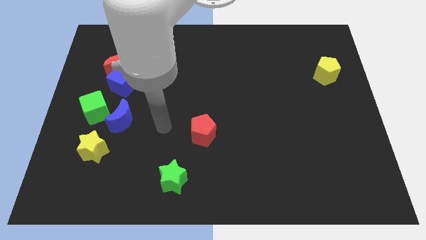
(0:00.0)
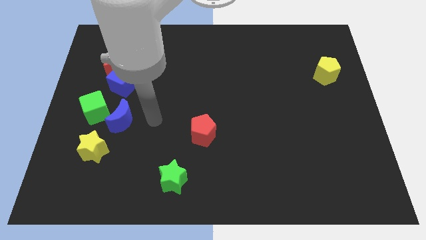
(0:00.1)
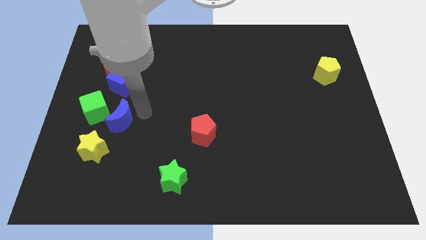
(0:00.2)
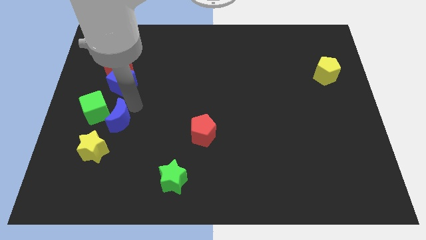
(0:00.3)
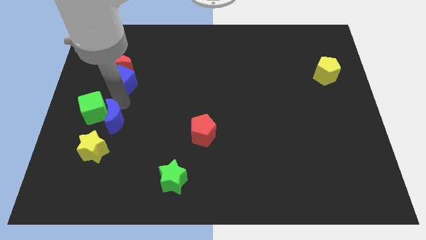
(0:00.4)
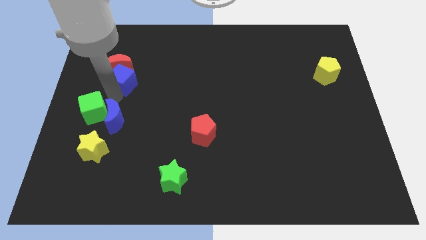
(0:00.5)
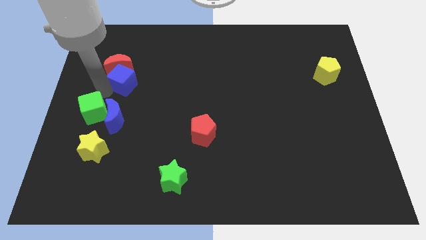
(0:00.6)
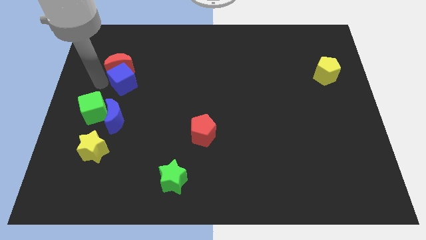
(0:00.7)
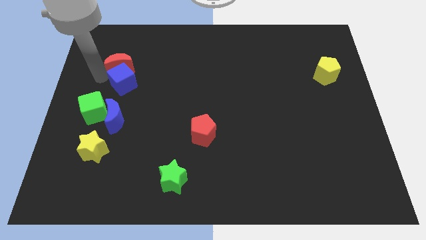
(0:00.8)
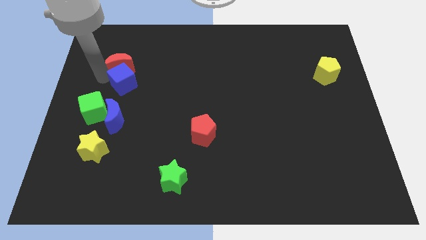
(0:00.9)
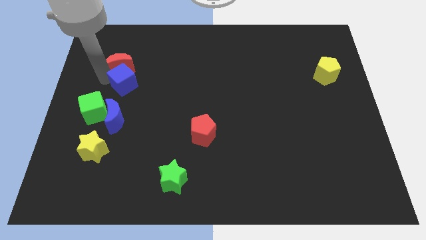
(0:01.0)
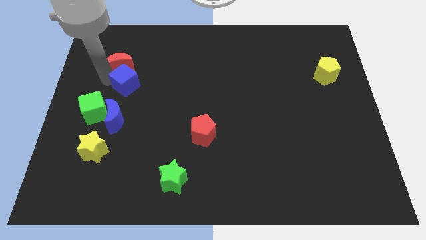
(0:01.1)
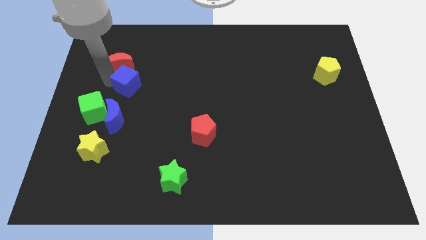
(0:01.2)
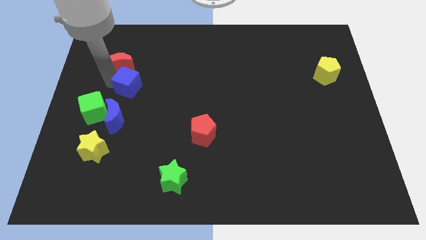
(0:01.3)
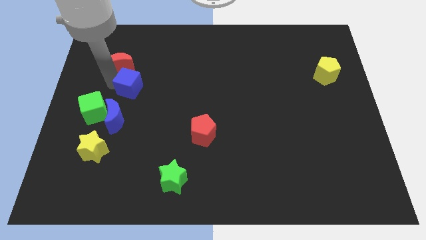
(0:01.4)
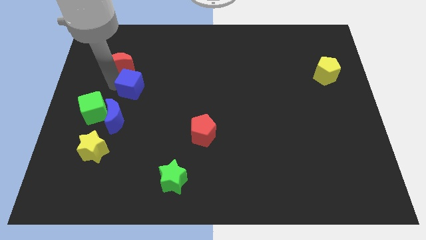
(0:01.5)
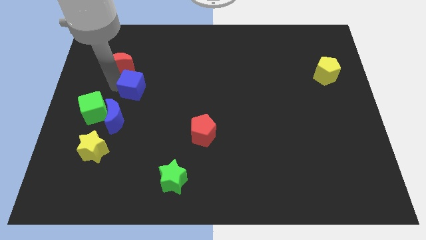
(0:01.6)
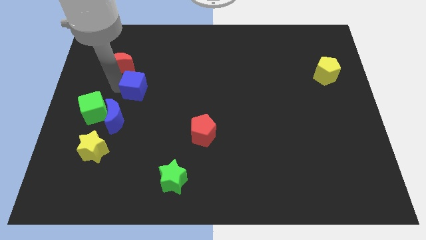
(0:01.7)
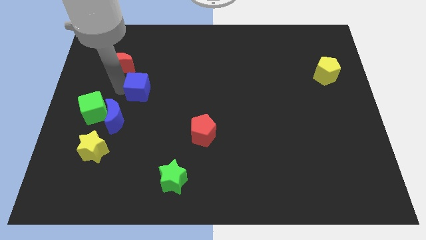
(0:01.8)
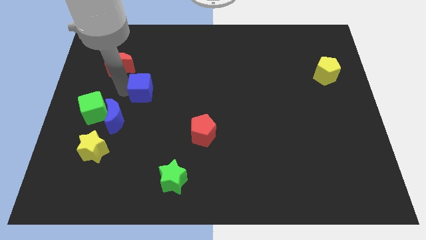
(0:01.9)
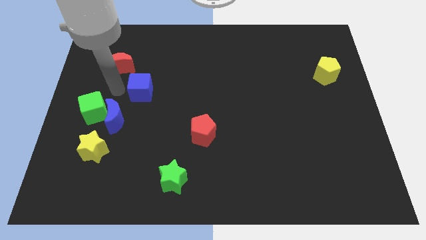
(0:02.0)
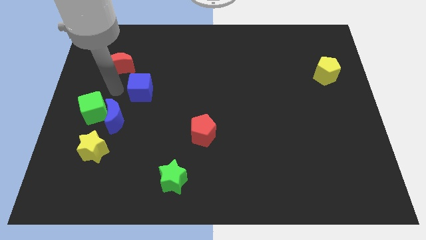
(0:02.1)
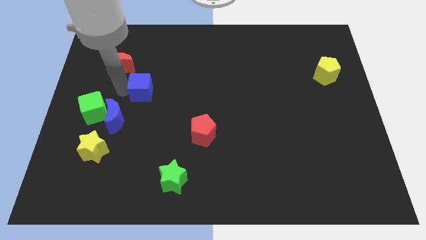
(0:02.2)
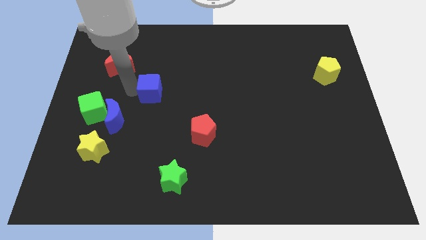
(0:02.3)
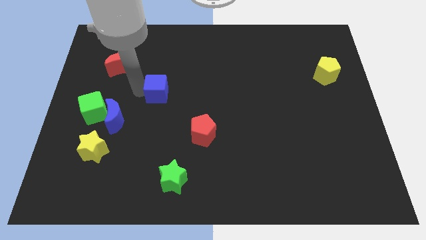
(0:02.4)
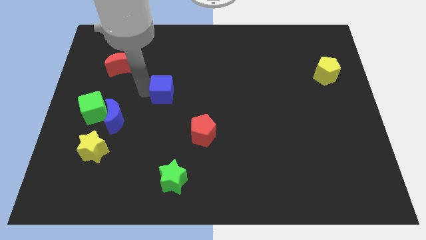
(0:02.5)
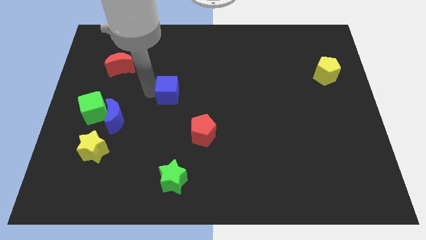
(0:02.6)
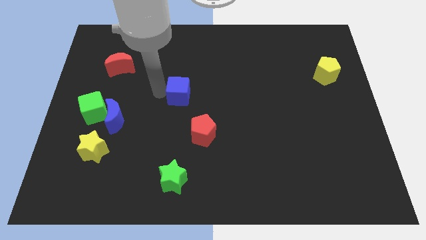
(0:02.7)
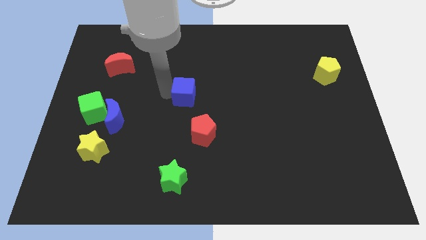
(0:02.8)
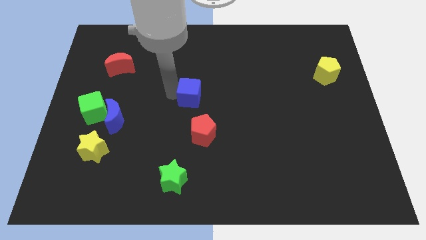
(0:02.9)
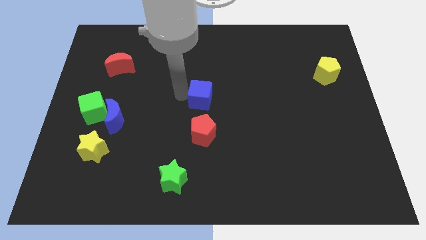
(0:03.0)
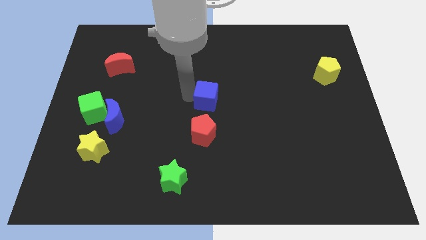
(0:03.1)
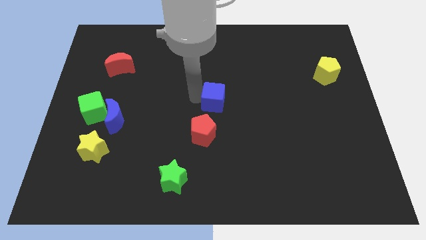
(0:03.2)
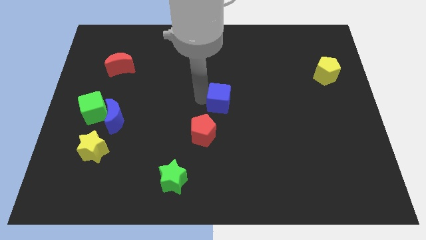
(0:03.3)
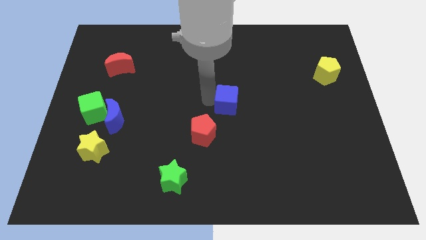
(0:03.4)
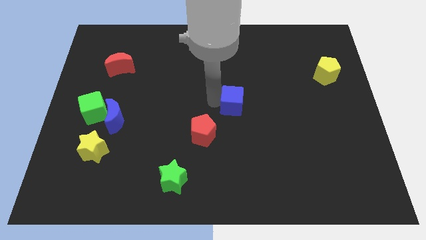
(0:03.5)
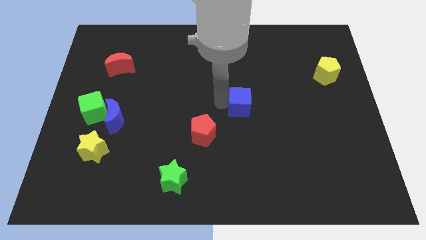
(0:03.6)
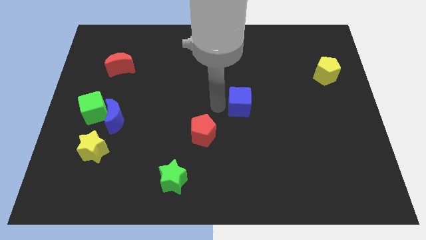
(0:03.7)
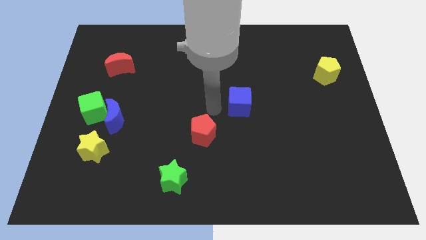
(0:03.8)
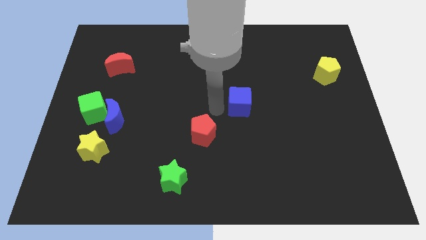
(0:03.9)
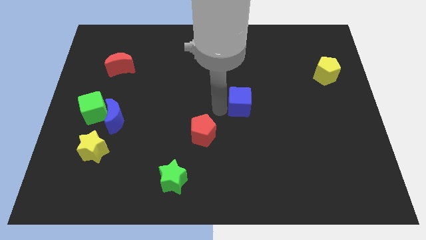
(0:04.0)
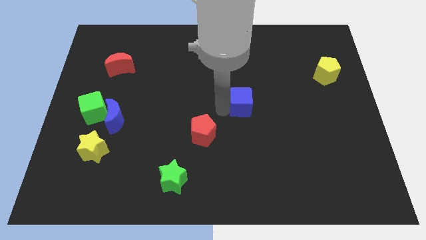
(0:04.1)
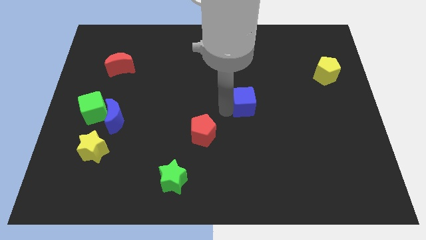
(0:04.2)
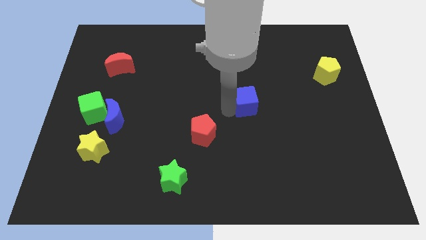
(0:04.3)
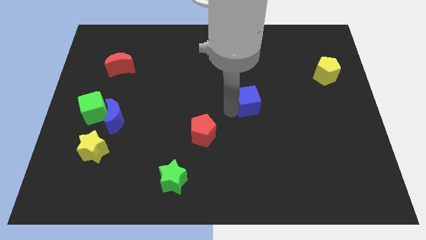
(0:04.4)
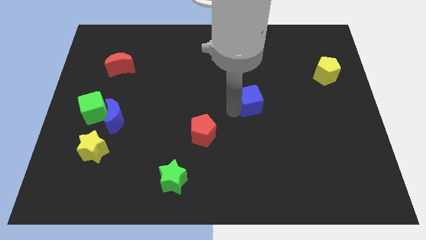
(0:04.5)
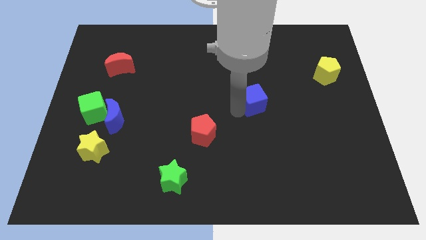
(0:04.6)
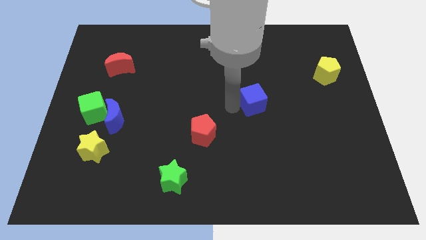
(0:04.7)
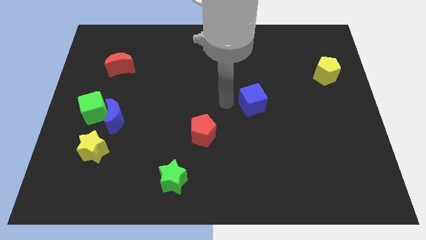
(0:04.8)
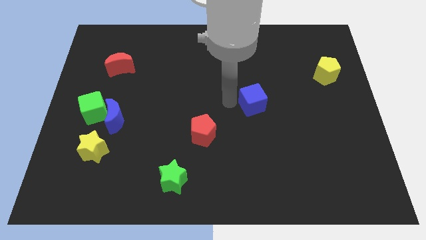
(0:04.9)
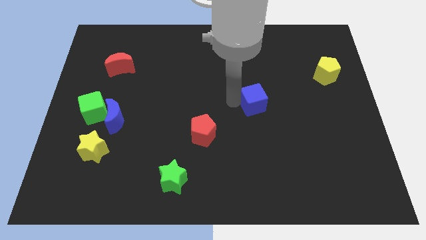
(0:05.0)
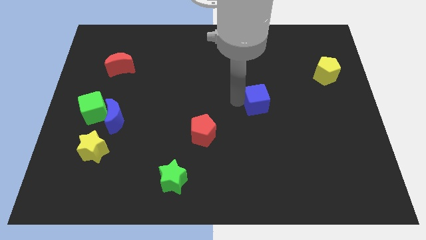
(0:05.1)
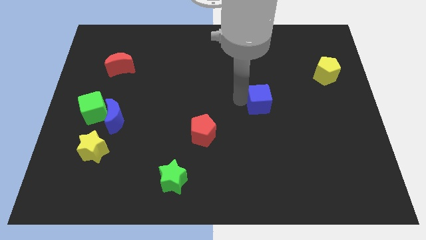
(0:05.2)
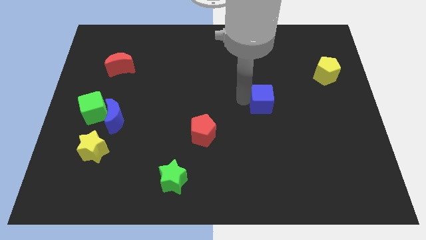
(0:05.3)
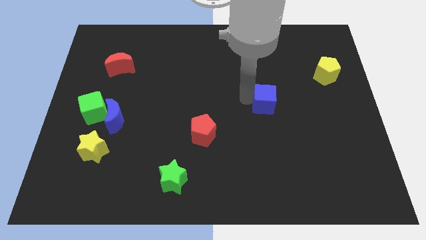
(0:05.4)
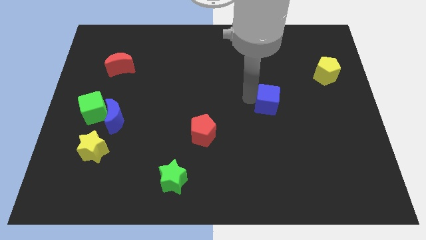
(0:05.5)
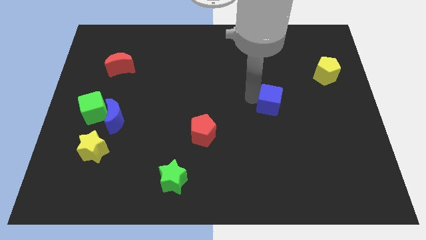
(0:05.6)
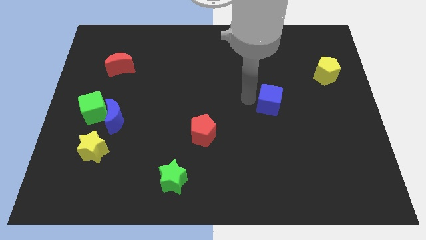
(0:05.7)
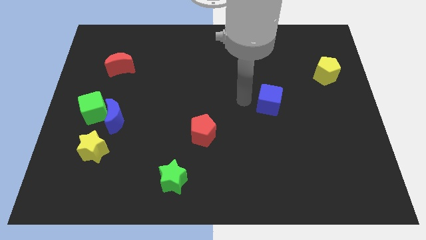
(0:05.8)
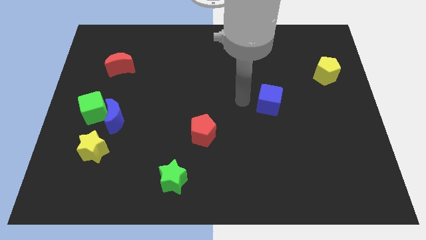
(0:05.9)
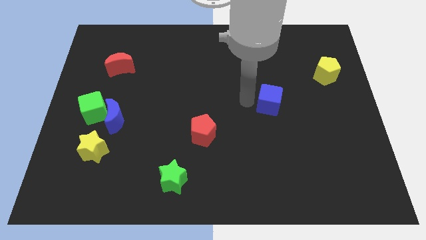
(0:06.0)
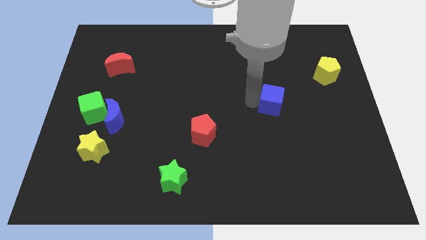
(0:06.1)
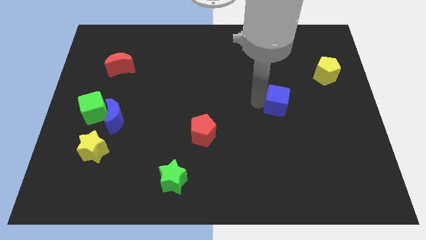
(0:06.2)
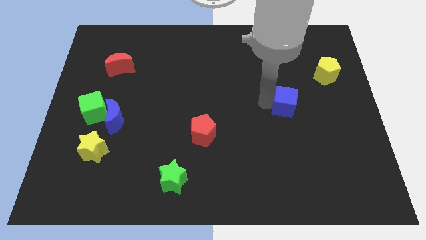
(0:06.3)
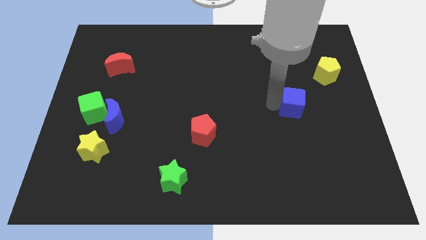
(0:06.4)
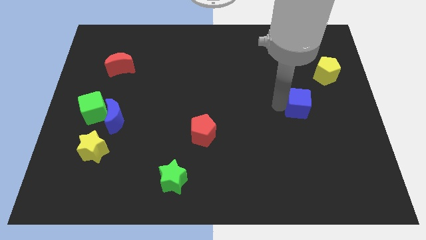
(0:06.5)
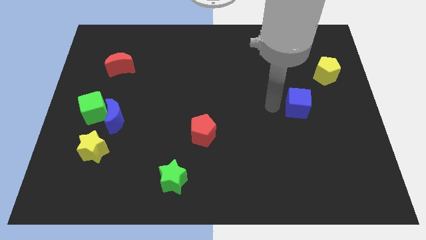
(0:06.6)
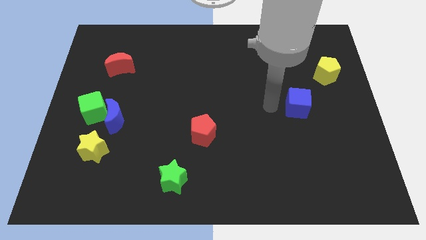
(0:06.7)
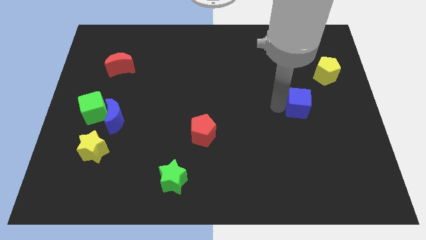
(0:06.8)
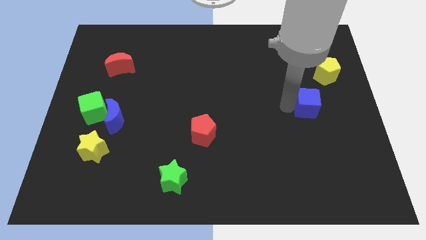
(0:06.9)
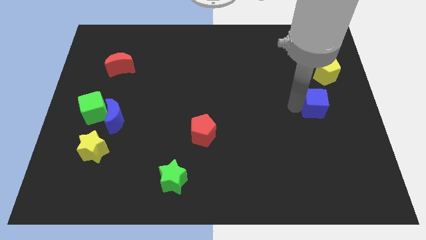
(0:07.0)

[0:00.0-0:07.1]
move the blue cube to the bottom side of the yellow pentagon
